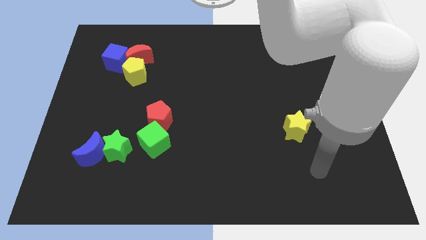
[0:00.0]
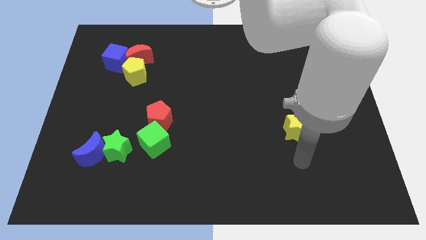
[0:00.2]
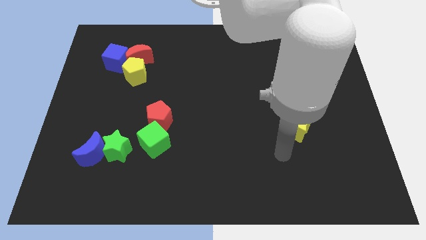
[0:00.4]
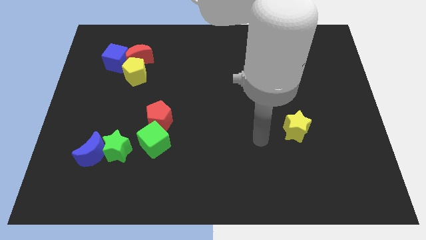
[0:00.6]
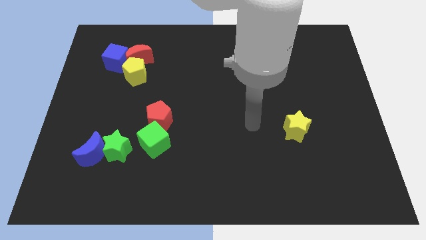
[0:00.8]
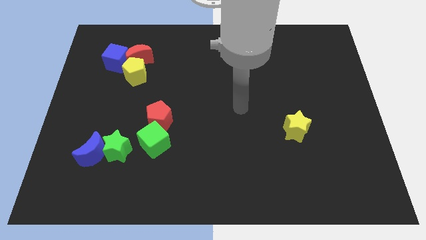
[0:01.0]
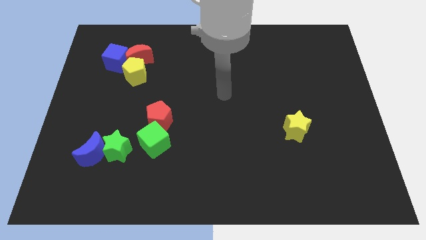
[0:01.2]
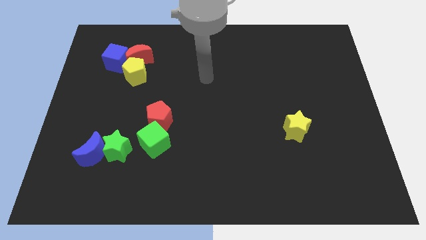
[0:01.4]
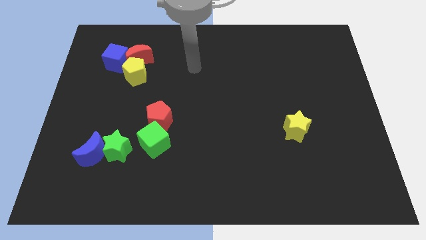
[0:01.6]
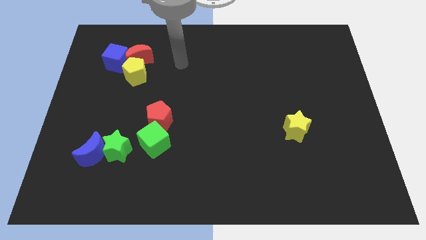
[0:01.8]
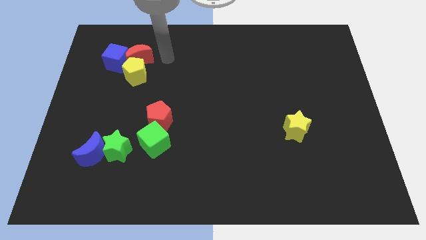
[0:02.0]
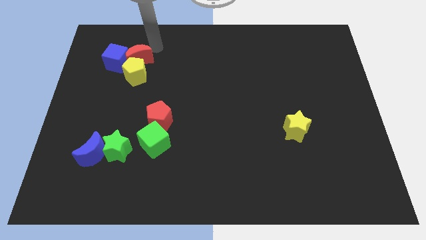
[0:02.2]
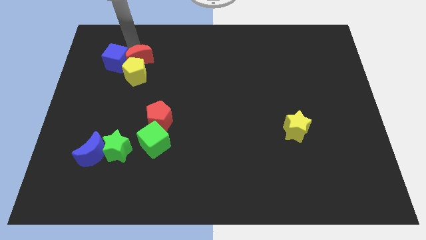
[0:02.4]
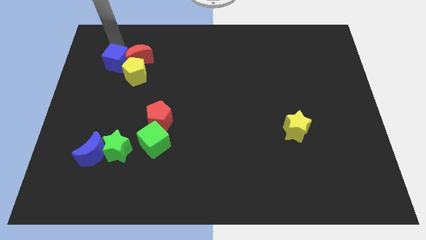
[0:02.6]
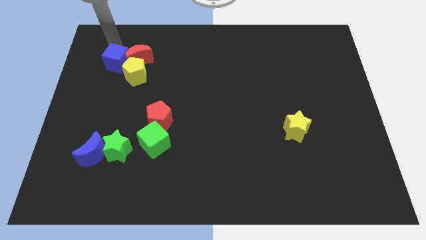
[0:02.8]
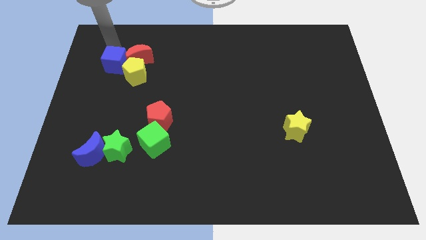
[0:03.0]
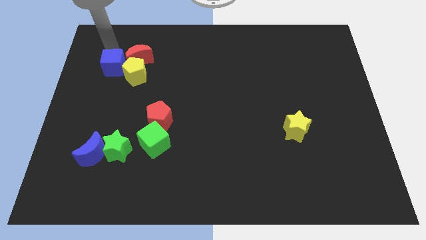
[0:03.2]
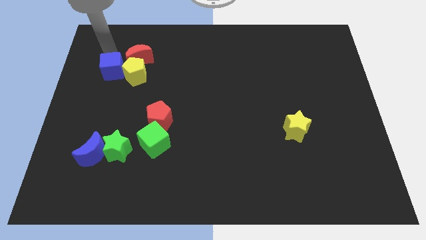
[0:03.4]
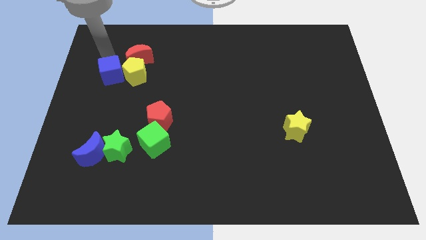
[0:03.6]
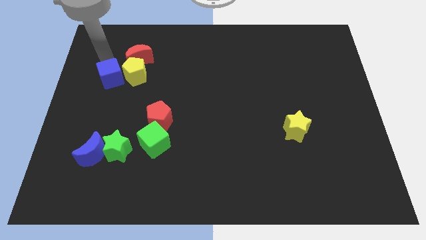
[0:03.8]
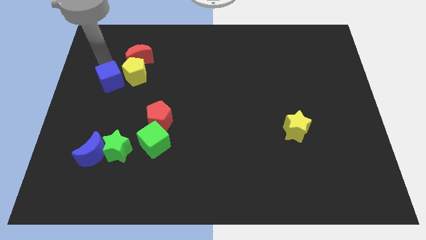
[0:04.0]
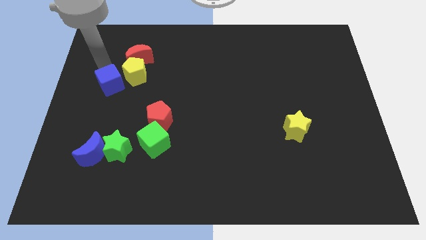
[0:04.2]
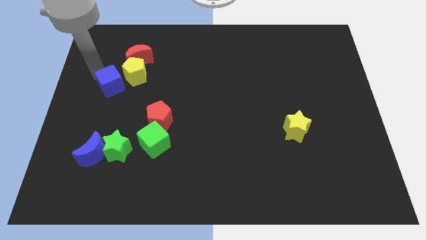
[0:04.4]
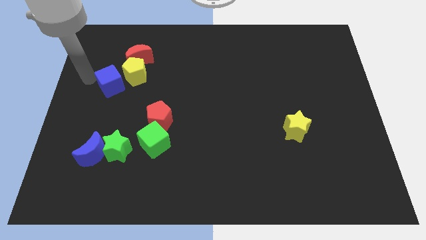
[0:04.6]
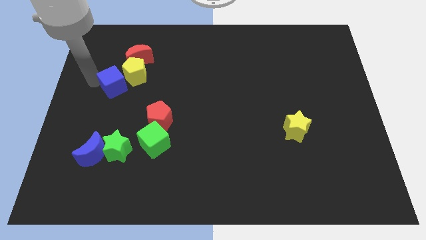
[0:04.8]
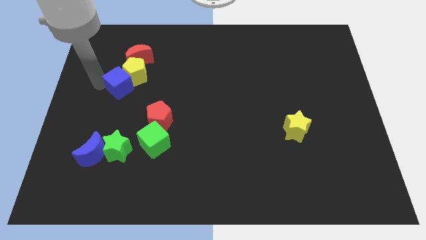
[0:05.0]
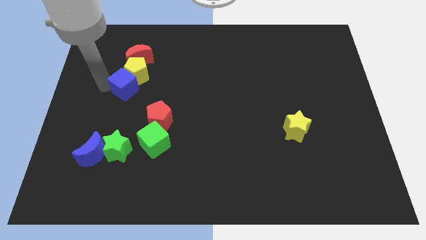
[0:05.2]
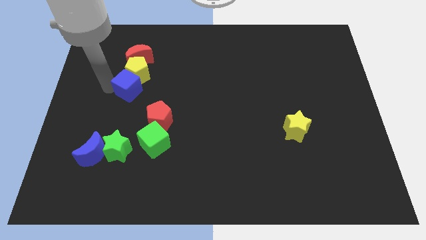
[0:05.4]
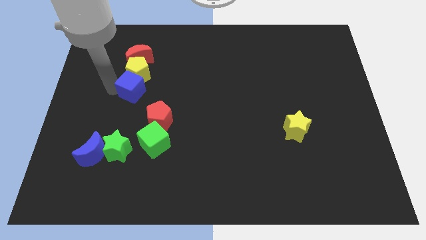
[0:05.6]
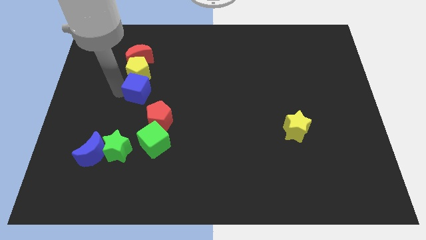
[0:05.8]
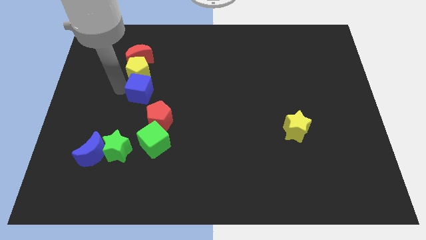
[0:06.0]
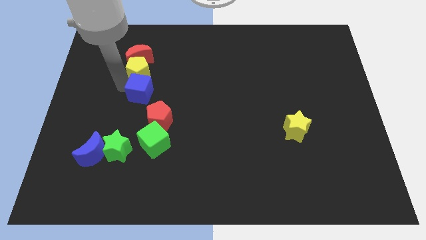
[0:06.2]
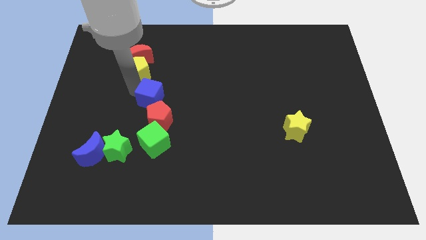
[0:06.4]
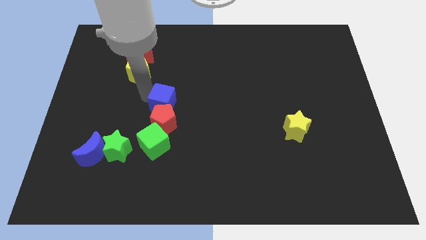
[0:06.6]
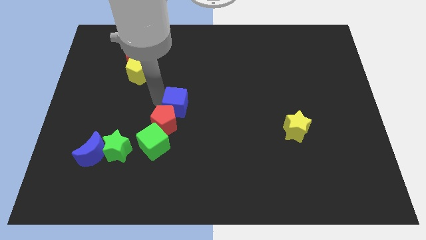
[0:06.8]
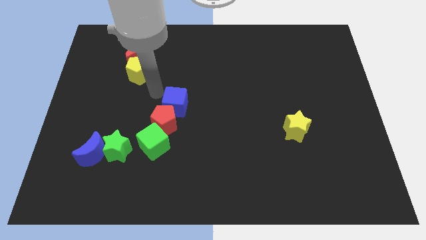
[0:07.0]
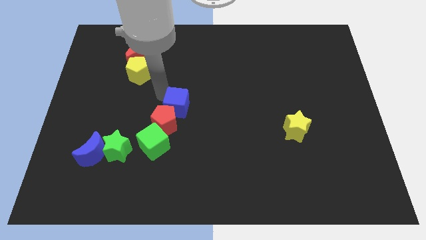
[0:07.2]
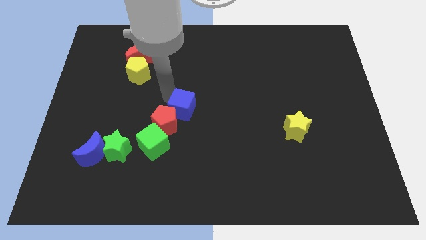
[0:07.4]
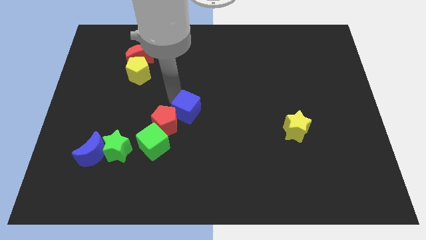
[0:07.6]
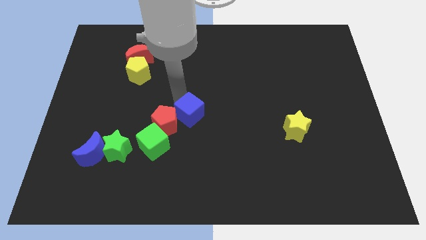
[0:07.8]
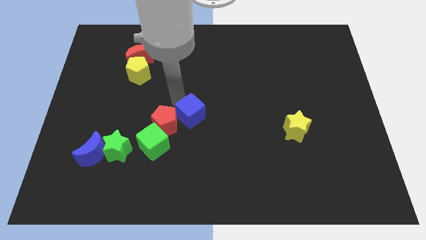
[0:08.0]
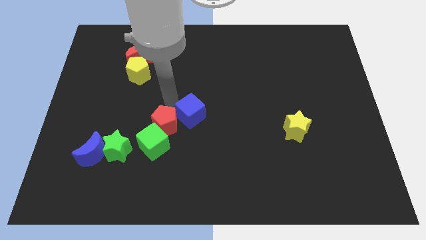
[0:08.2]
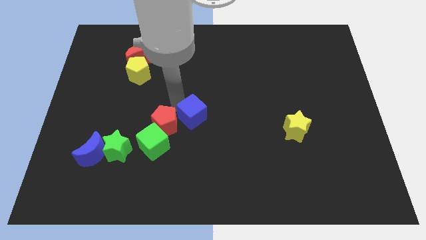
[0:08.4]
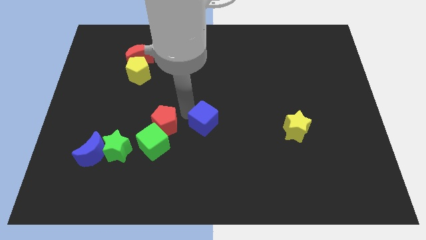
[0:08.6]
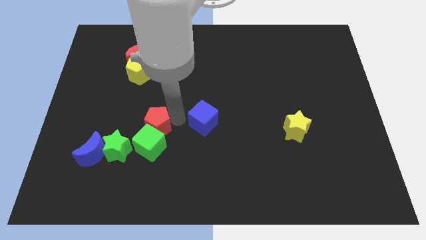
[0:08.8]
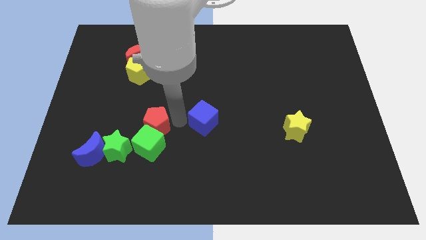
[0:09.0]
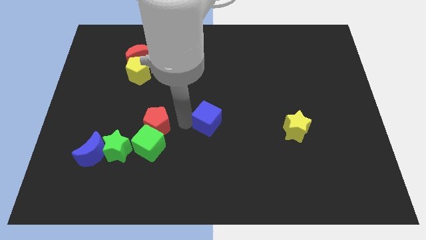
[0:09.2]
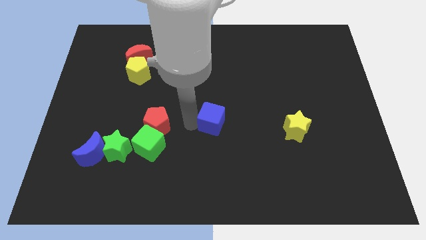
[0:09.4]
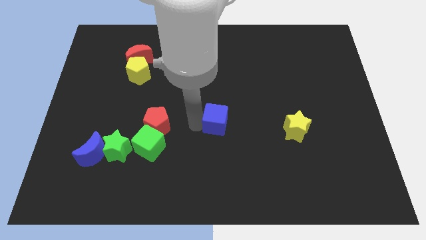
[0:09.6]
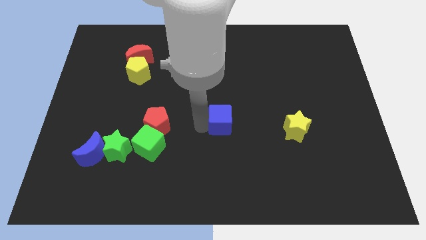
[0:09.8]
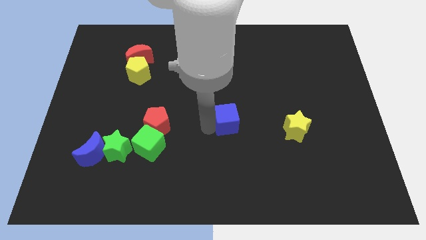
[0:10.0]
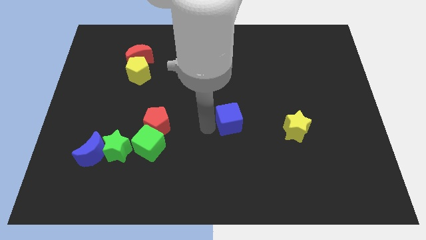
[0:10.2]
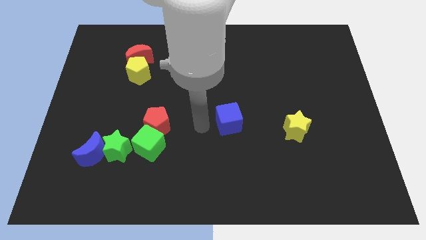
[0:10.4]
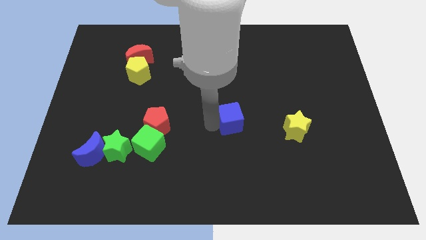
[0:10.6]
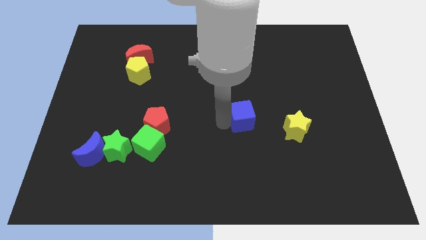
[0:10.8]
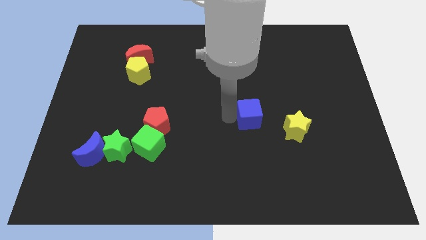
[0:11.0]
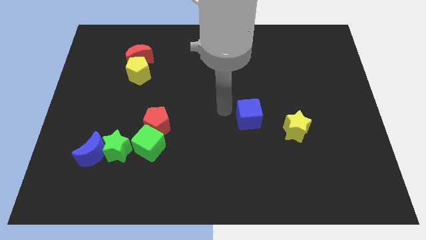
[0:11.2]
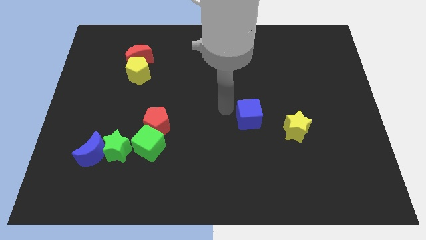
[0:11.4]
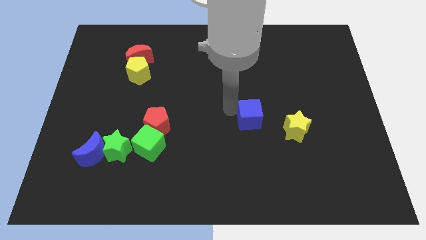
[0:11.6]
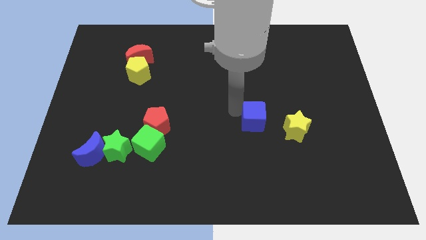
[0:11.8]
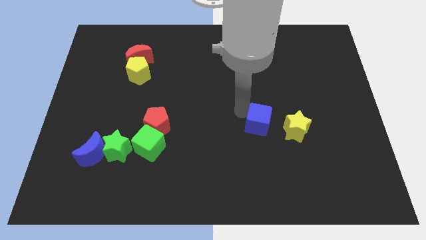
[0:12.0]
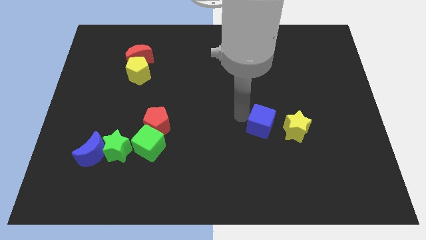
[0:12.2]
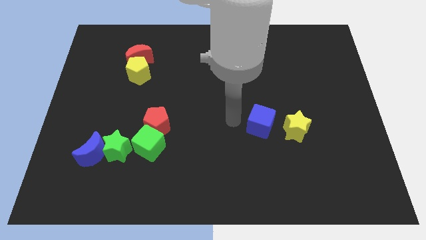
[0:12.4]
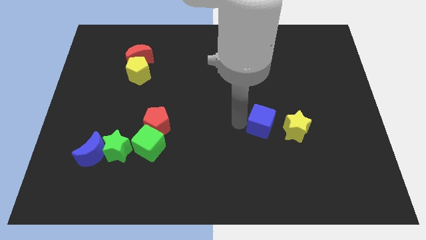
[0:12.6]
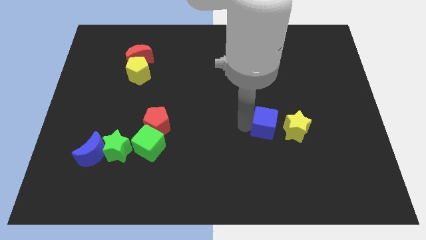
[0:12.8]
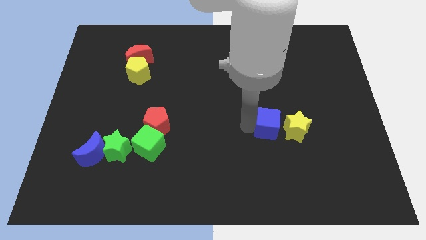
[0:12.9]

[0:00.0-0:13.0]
move the blue cube towards the yellow star

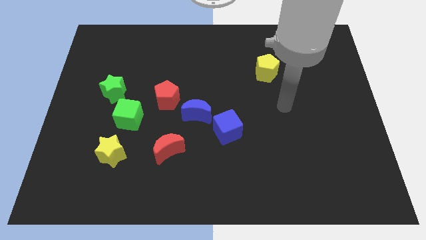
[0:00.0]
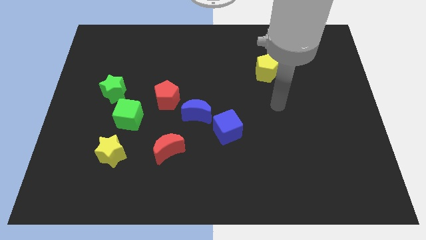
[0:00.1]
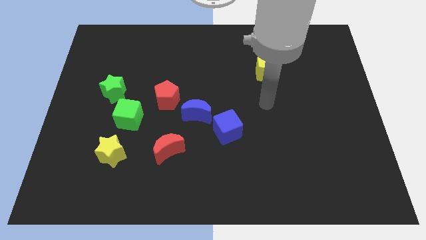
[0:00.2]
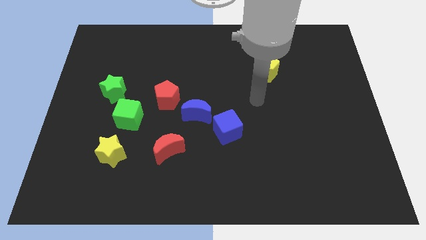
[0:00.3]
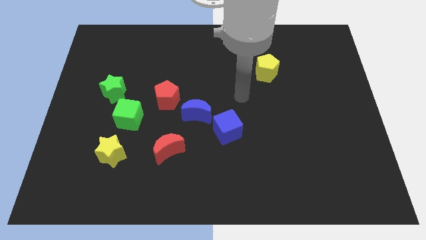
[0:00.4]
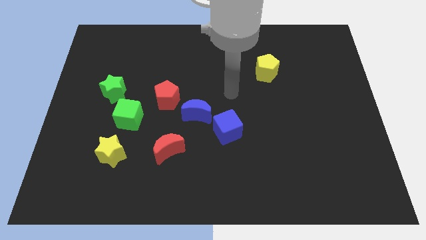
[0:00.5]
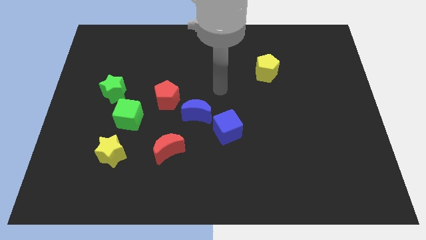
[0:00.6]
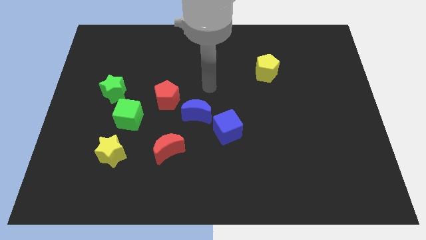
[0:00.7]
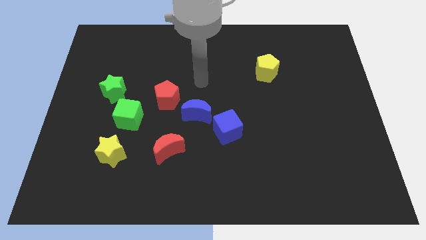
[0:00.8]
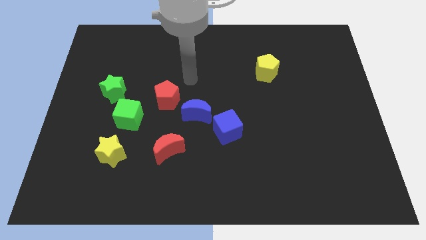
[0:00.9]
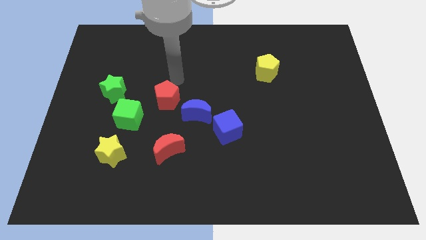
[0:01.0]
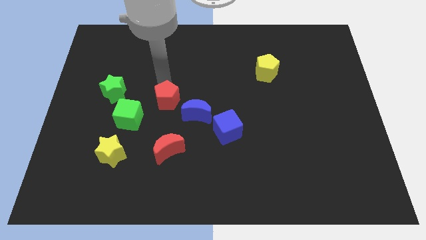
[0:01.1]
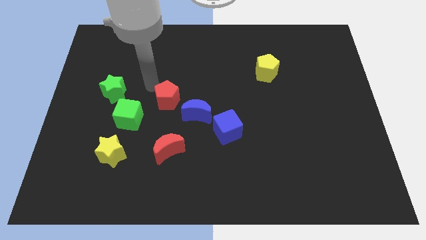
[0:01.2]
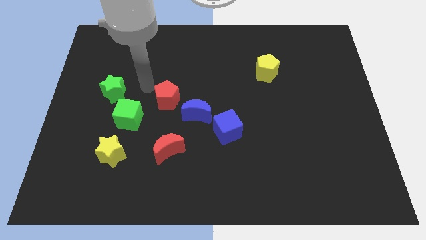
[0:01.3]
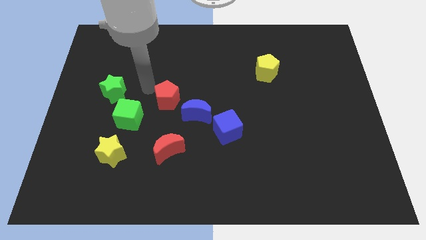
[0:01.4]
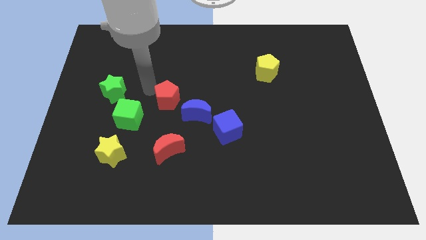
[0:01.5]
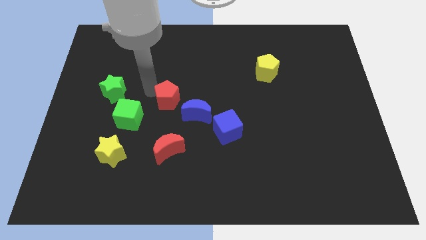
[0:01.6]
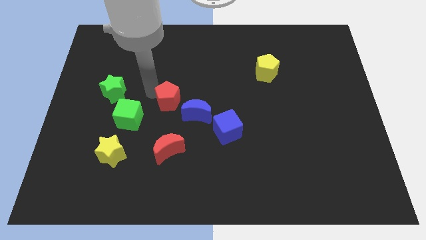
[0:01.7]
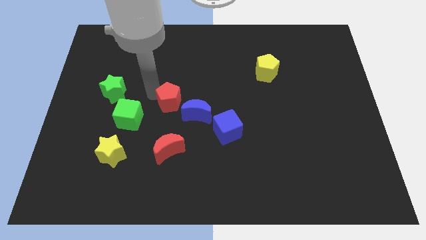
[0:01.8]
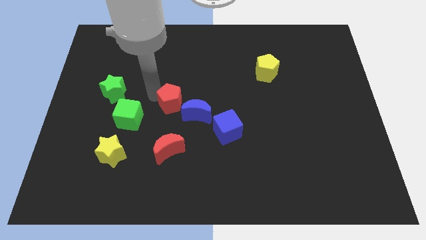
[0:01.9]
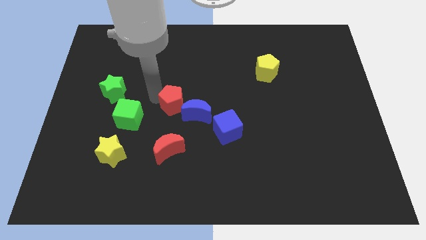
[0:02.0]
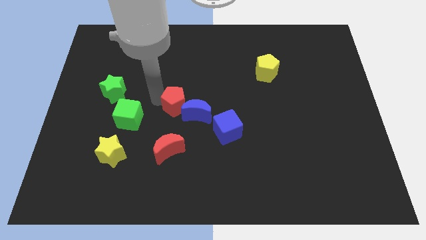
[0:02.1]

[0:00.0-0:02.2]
move the red pentagon close to the blue moon
